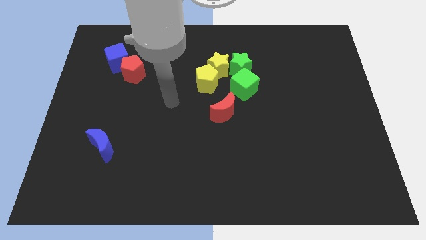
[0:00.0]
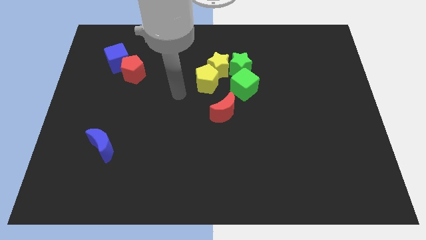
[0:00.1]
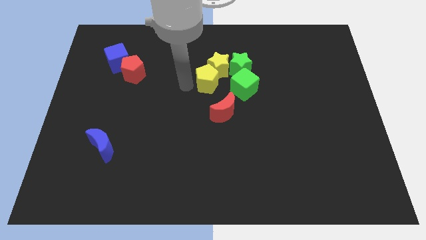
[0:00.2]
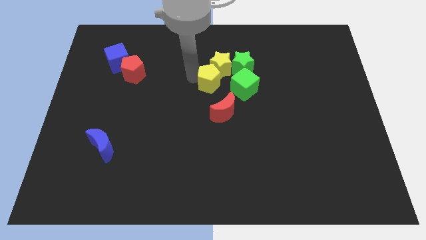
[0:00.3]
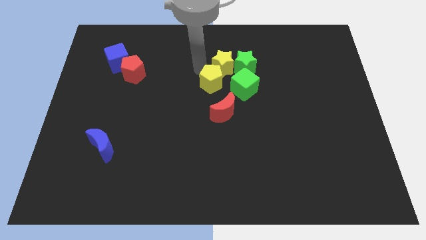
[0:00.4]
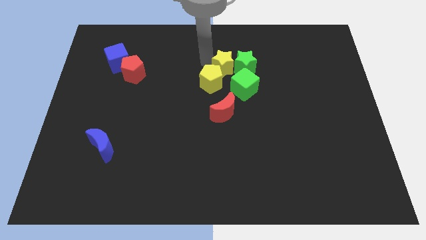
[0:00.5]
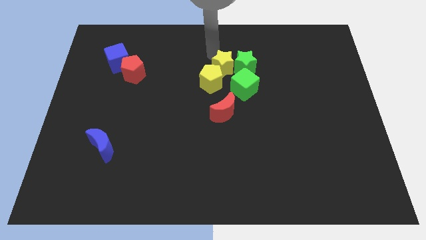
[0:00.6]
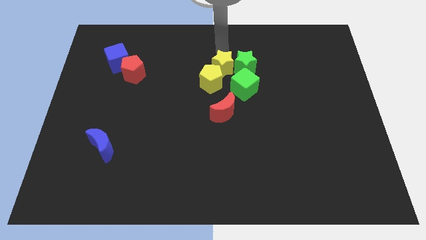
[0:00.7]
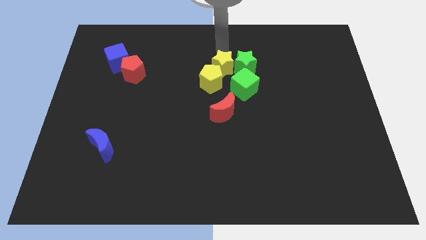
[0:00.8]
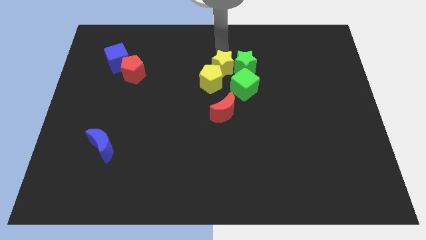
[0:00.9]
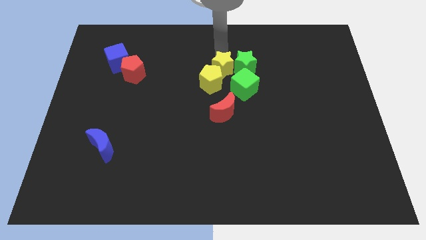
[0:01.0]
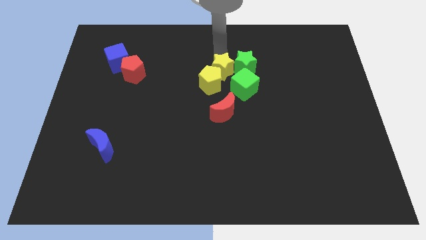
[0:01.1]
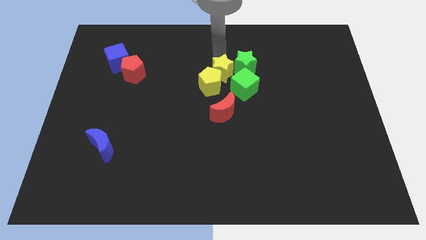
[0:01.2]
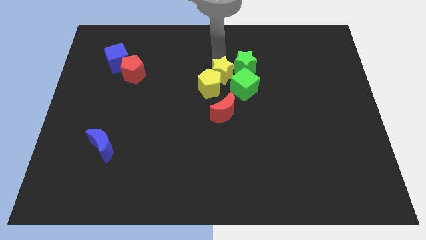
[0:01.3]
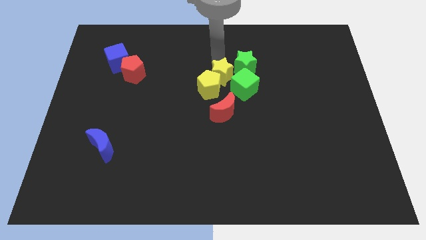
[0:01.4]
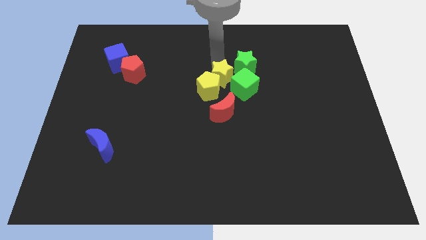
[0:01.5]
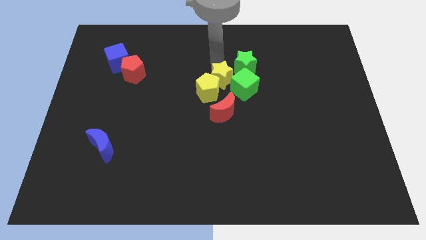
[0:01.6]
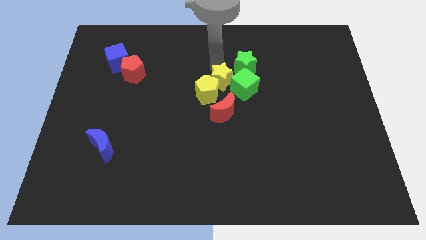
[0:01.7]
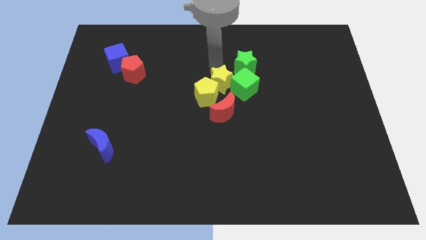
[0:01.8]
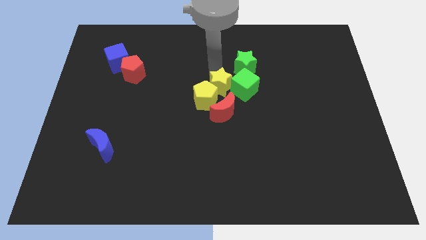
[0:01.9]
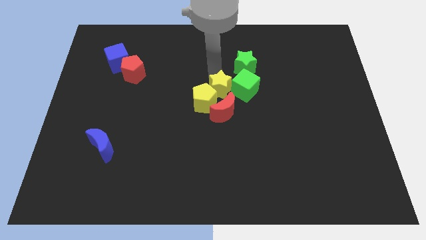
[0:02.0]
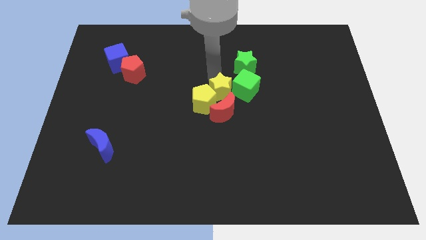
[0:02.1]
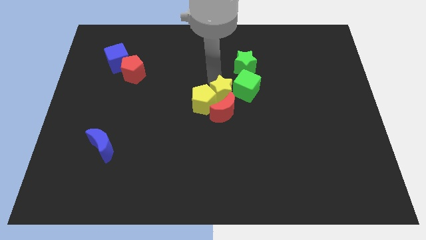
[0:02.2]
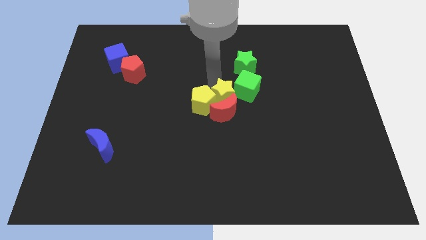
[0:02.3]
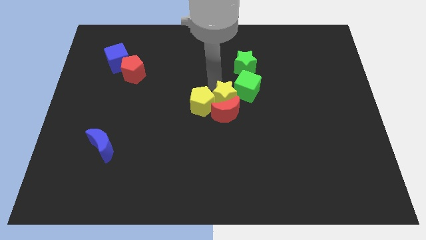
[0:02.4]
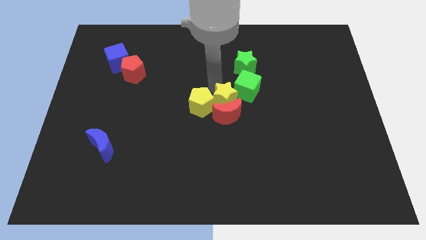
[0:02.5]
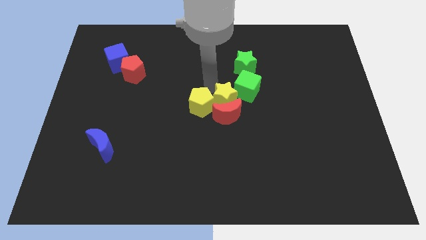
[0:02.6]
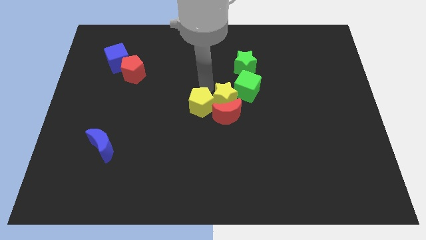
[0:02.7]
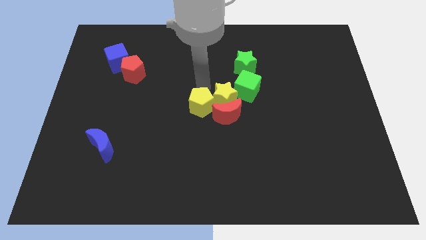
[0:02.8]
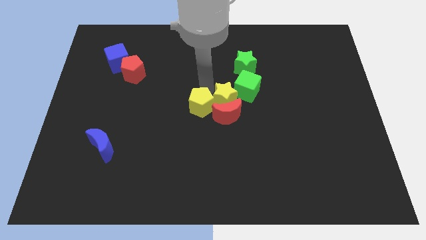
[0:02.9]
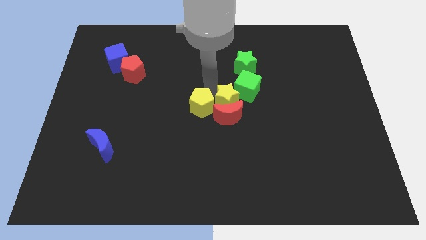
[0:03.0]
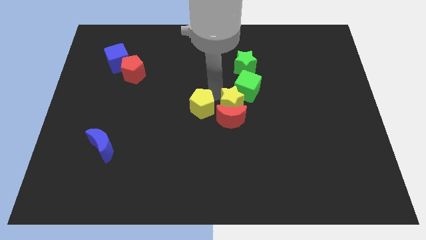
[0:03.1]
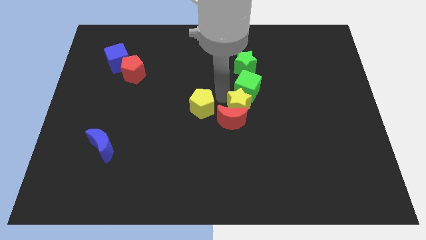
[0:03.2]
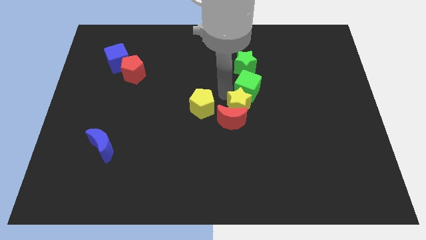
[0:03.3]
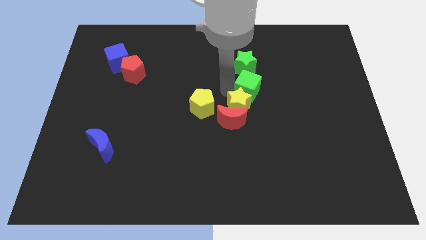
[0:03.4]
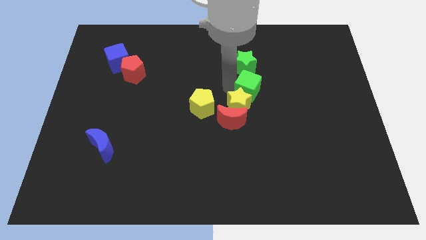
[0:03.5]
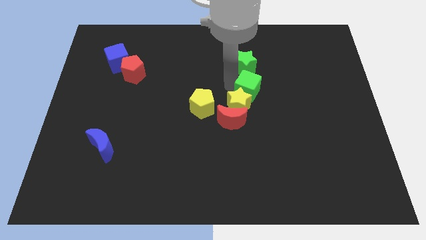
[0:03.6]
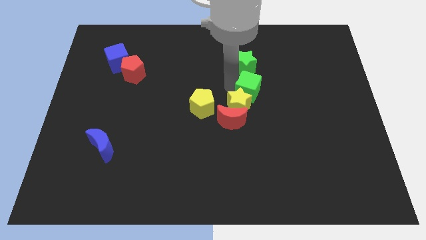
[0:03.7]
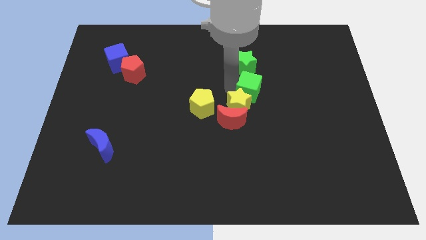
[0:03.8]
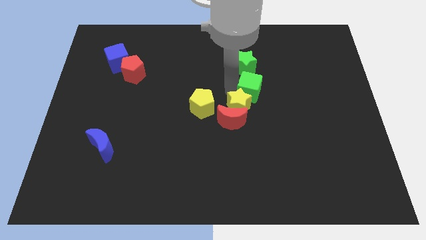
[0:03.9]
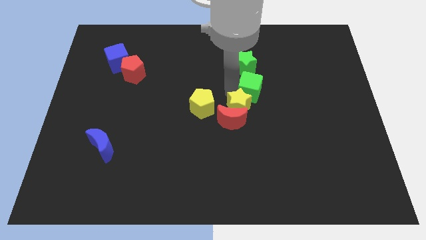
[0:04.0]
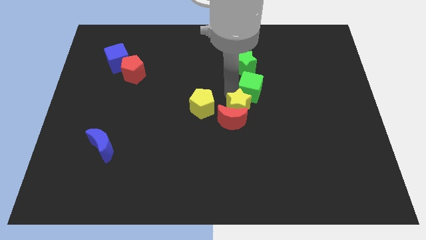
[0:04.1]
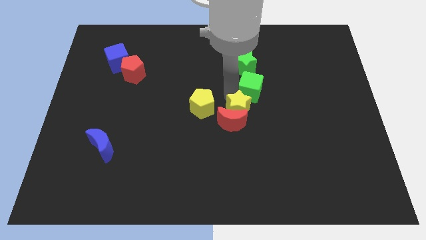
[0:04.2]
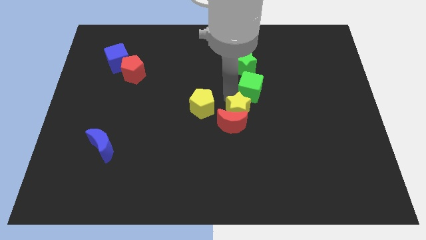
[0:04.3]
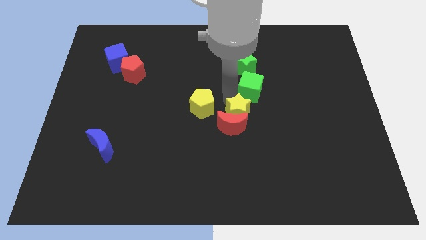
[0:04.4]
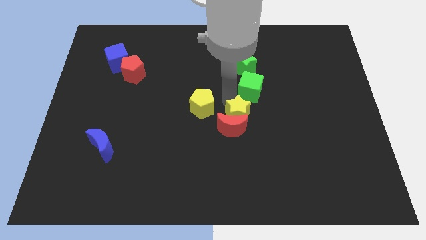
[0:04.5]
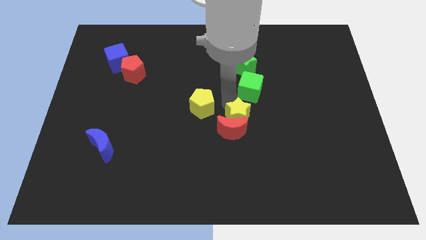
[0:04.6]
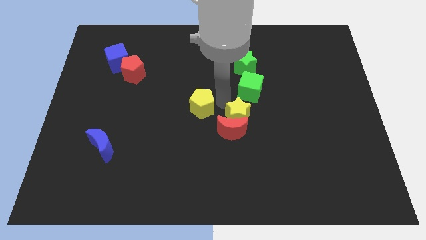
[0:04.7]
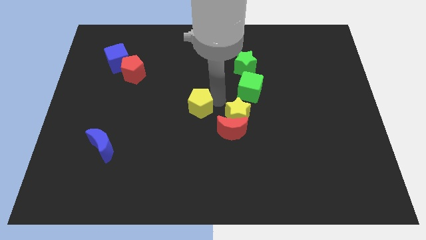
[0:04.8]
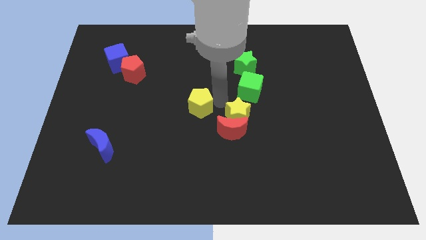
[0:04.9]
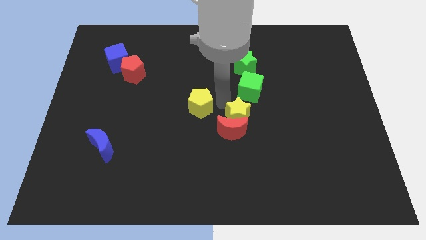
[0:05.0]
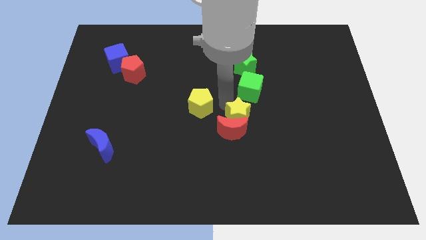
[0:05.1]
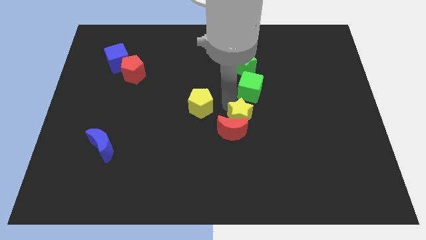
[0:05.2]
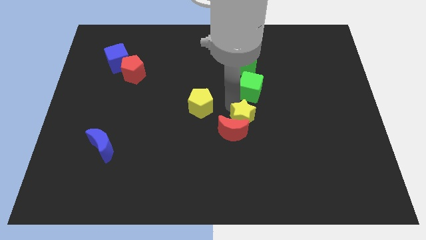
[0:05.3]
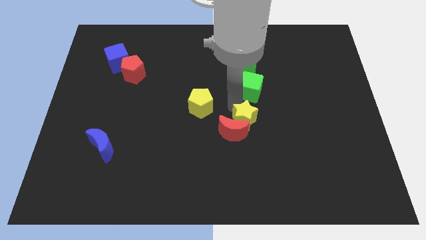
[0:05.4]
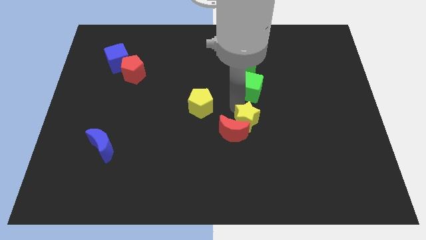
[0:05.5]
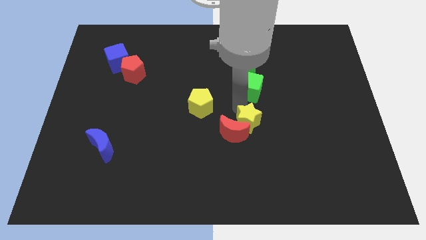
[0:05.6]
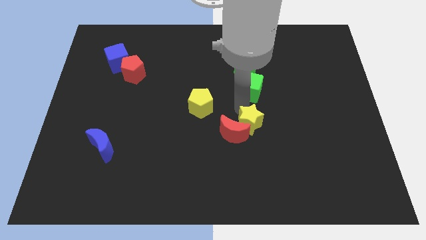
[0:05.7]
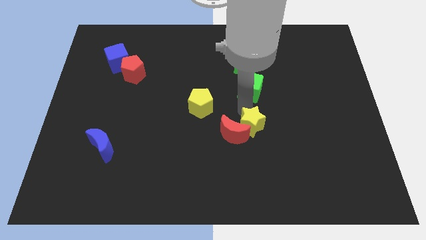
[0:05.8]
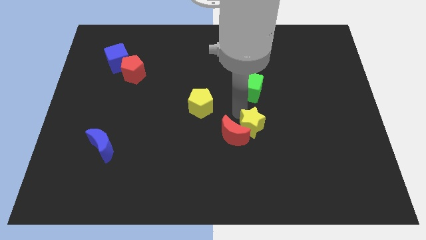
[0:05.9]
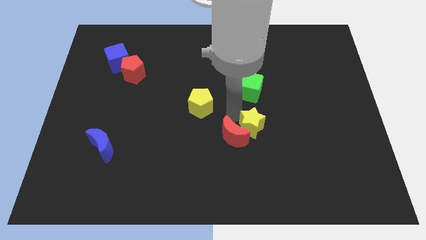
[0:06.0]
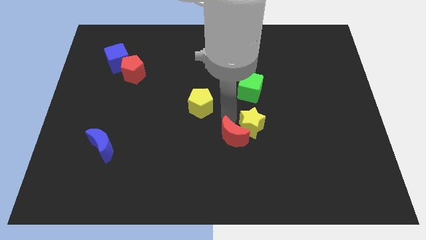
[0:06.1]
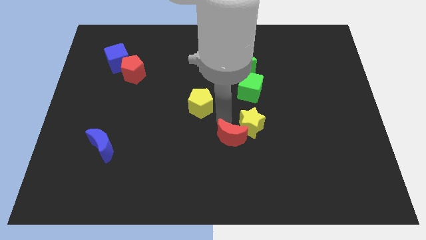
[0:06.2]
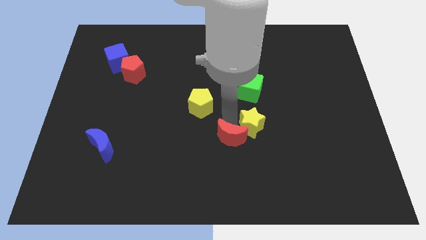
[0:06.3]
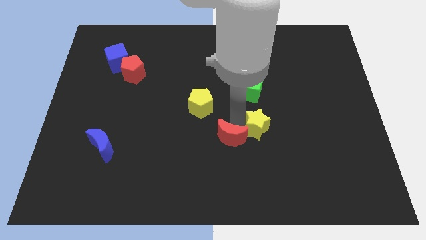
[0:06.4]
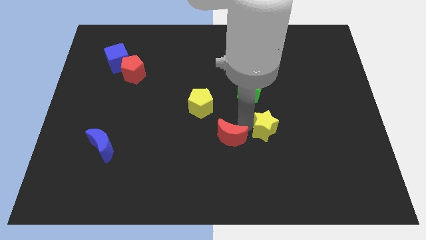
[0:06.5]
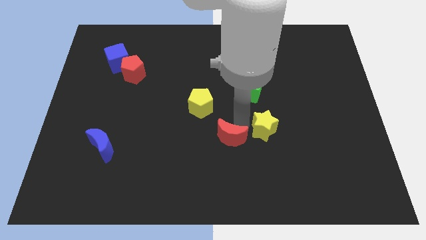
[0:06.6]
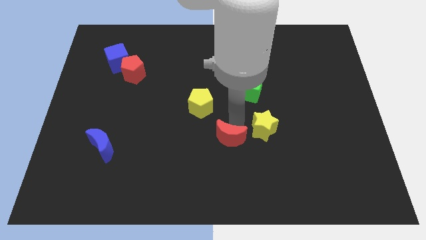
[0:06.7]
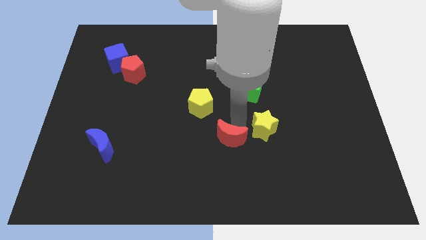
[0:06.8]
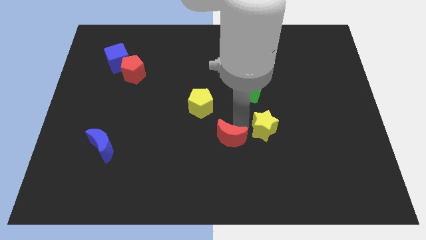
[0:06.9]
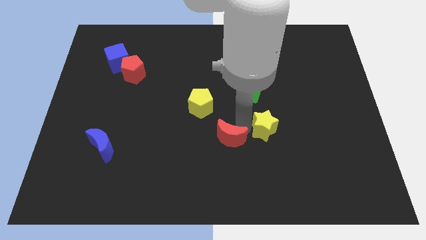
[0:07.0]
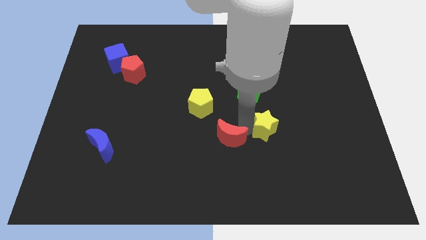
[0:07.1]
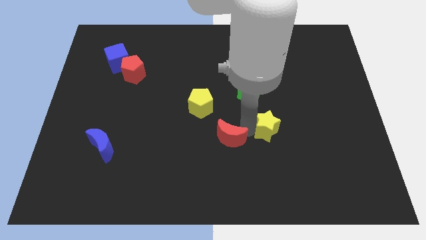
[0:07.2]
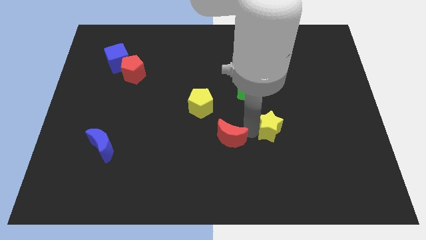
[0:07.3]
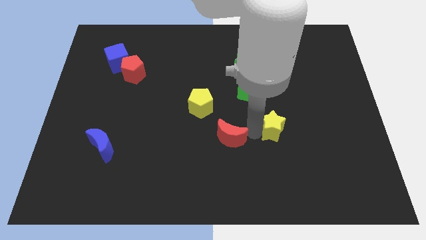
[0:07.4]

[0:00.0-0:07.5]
move the yellow star diagonally downwards and right

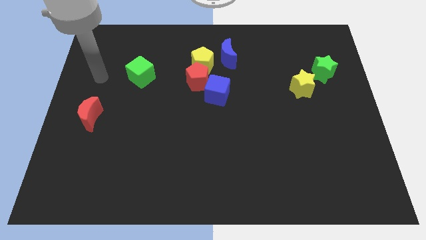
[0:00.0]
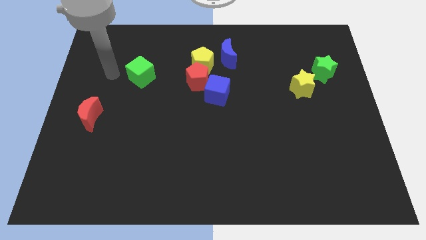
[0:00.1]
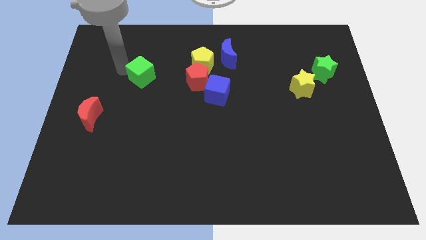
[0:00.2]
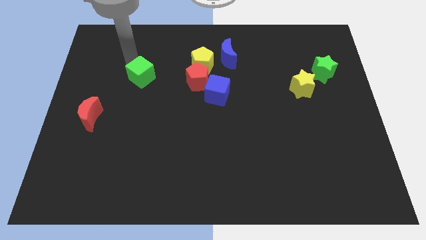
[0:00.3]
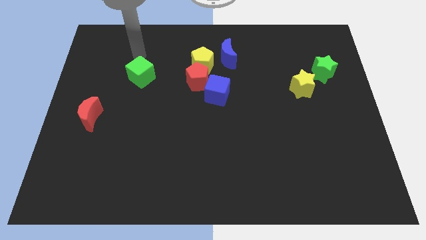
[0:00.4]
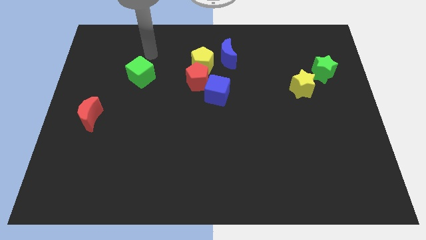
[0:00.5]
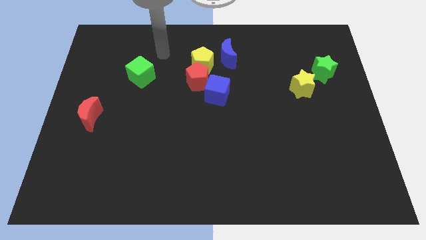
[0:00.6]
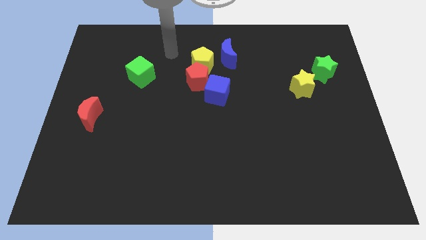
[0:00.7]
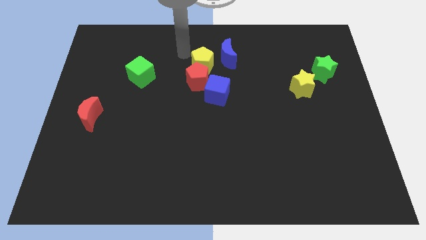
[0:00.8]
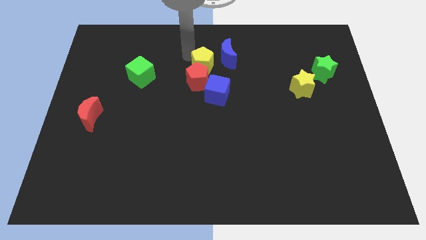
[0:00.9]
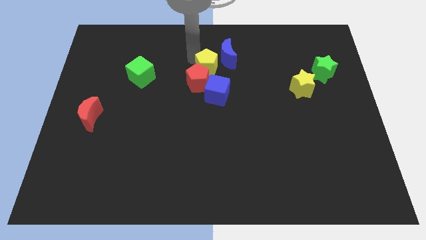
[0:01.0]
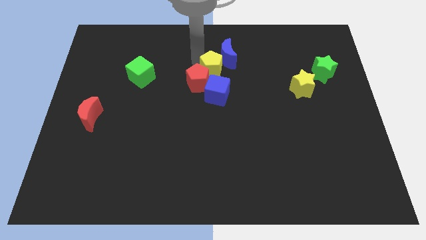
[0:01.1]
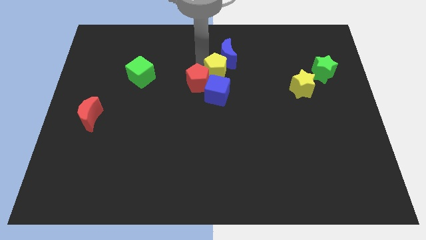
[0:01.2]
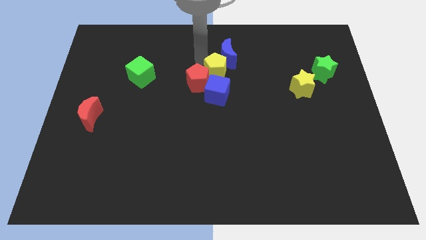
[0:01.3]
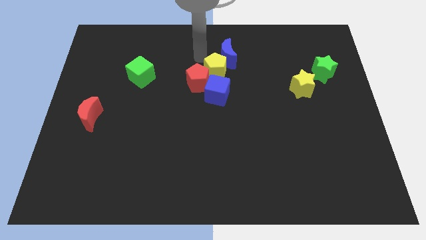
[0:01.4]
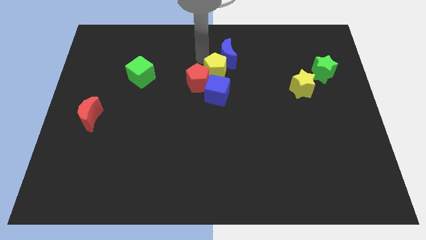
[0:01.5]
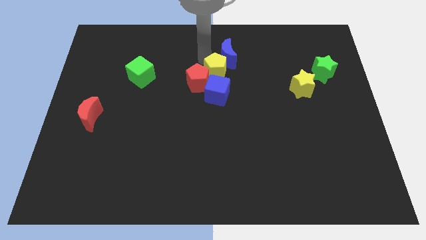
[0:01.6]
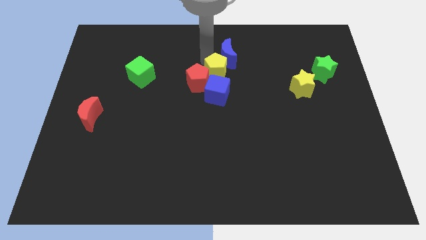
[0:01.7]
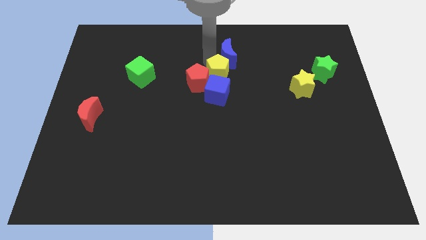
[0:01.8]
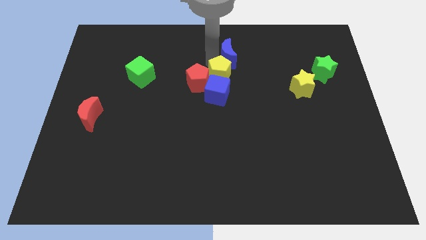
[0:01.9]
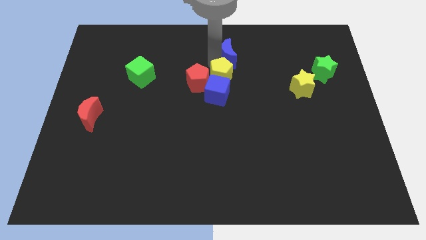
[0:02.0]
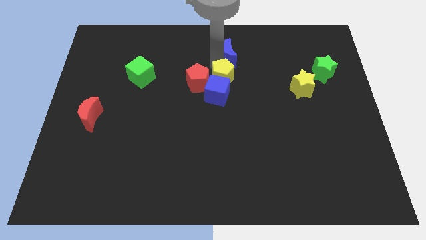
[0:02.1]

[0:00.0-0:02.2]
push the yellow pentagon a little down and to the right
